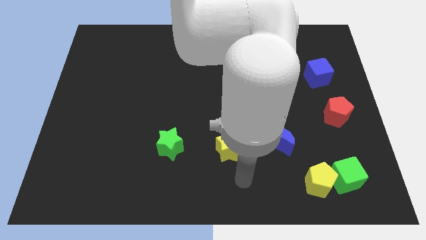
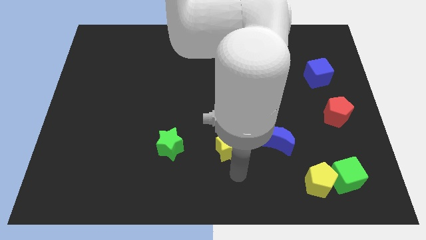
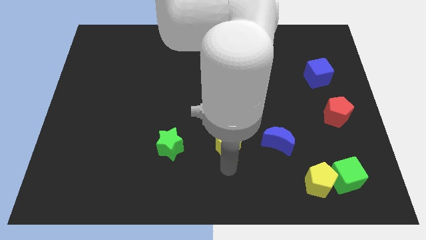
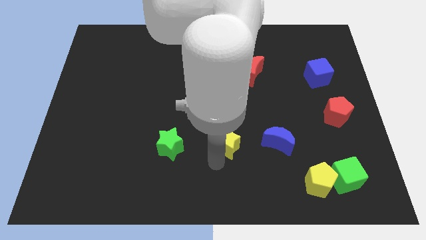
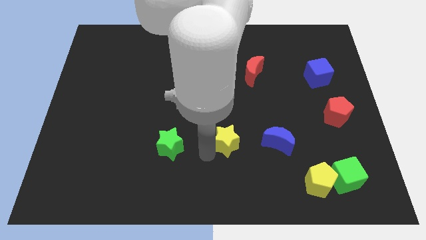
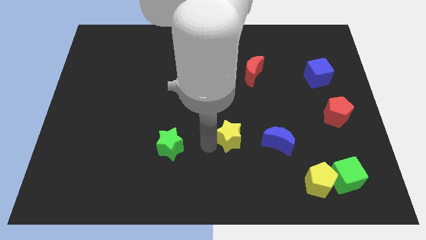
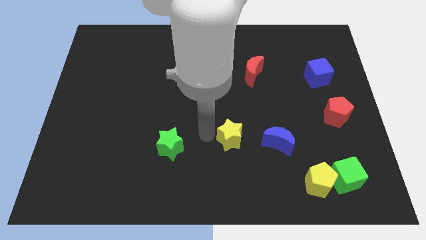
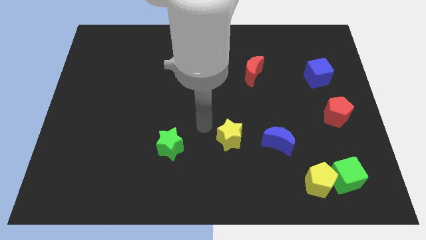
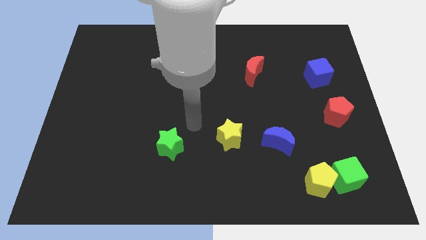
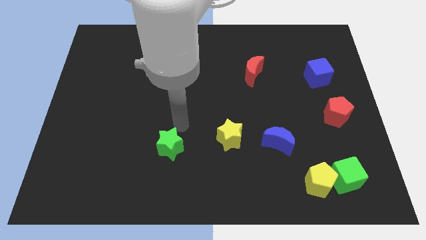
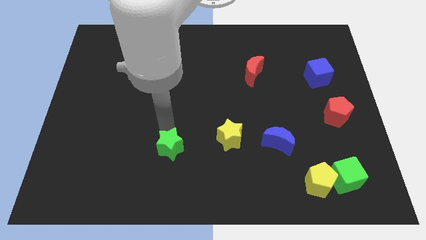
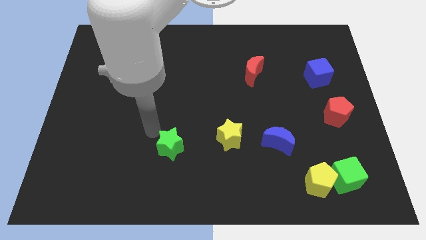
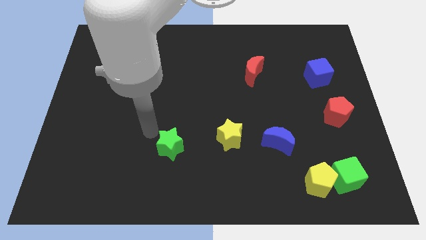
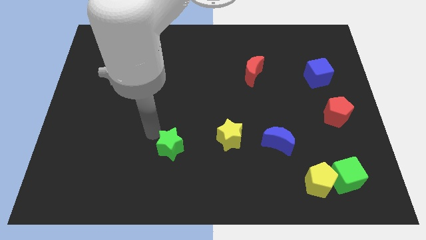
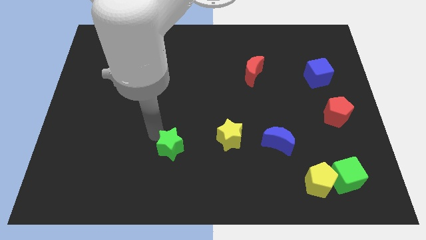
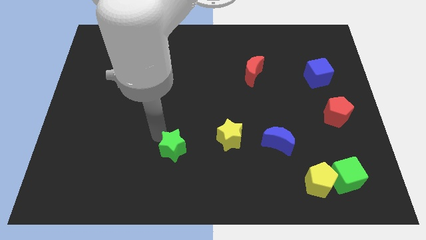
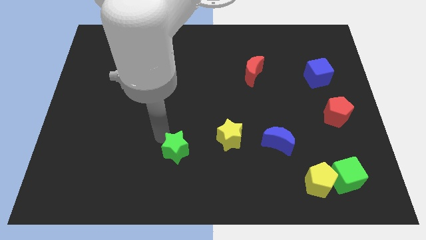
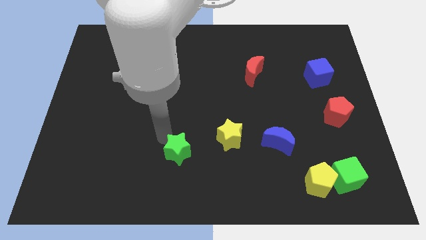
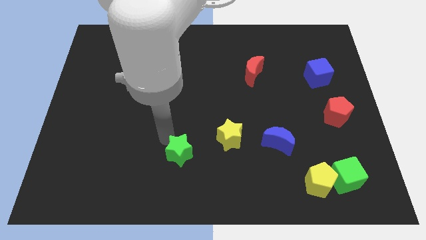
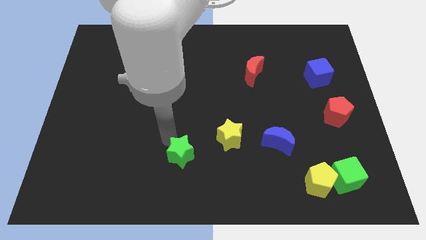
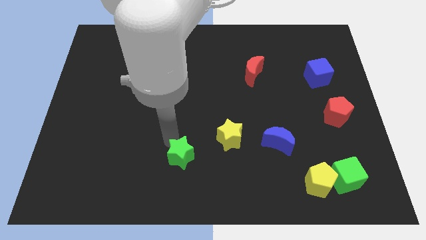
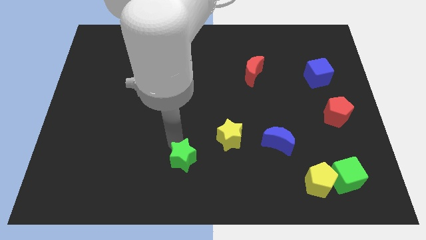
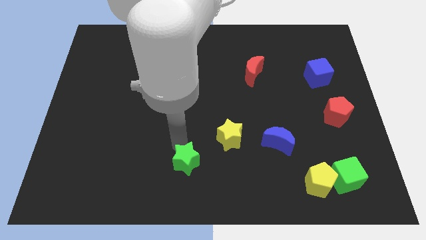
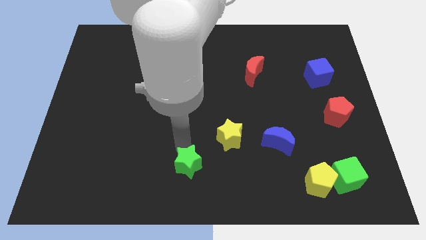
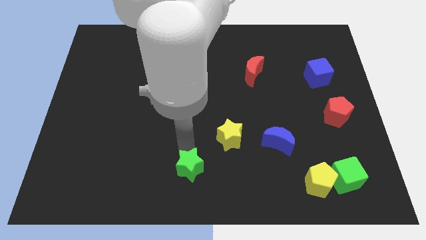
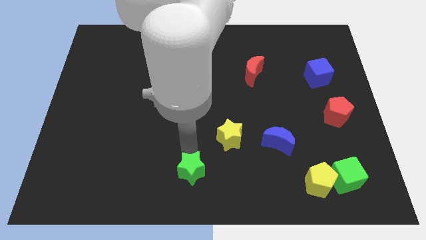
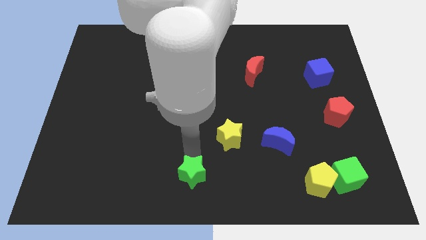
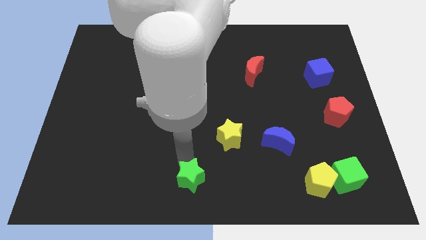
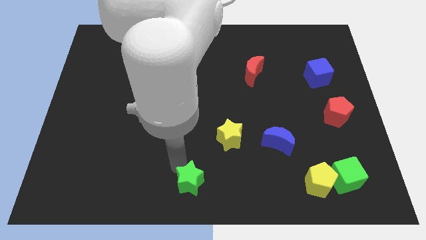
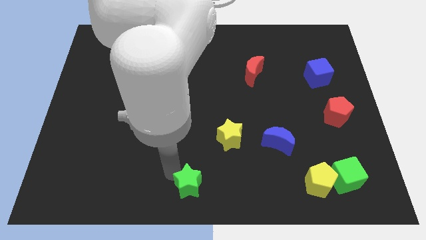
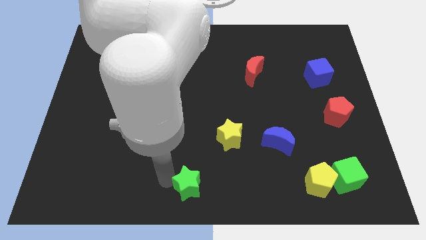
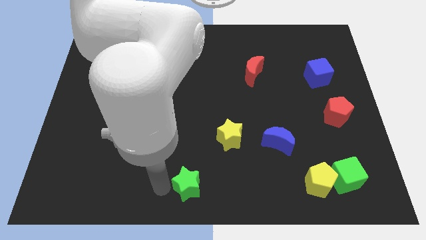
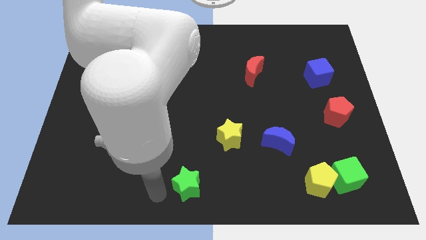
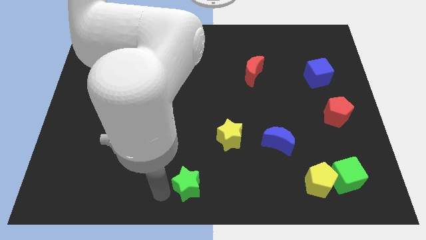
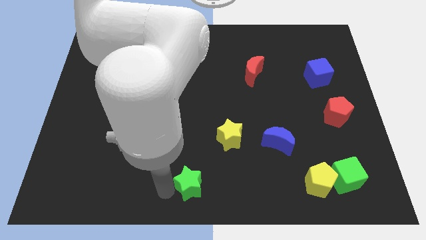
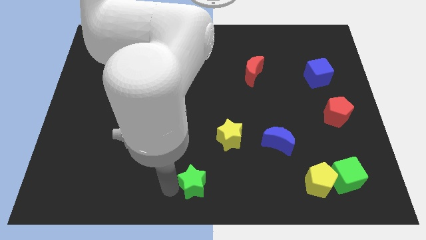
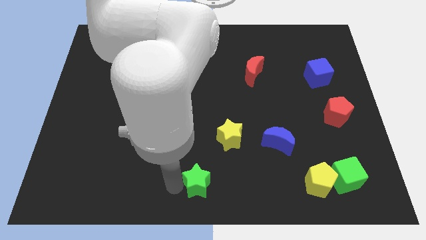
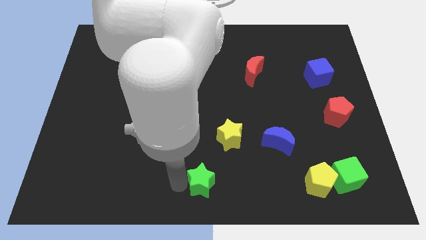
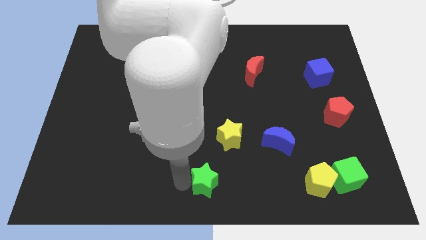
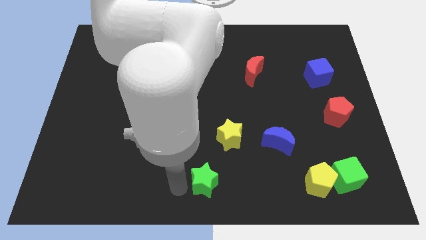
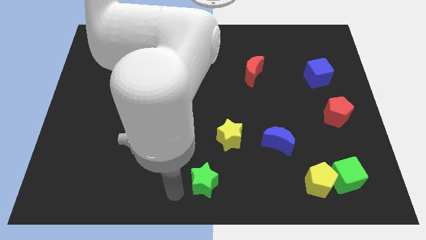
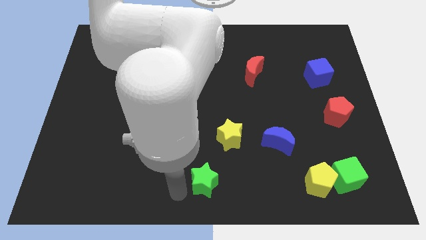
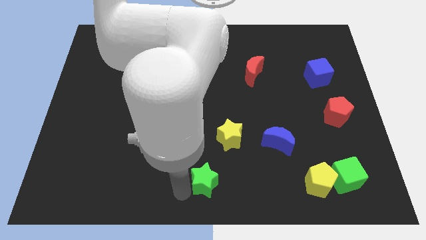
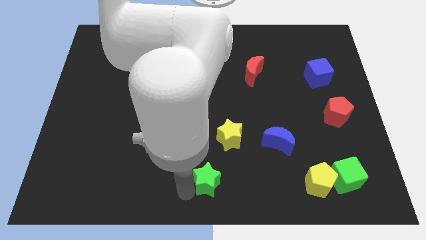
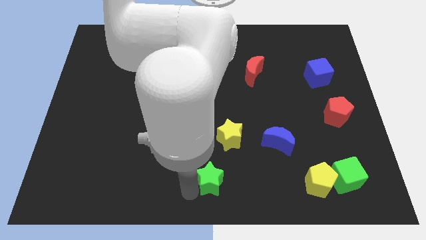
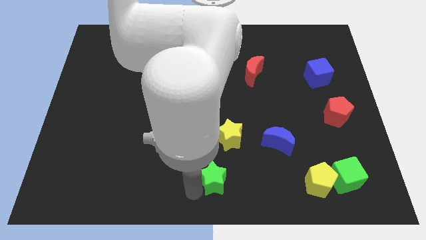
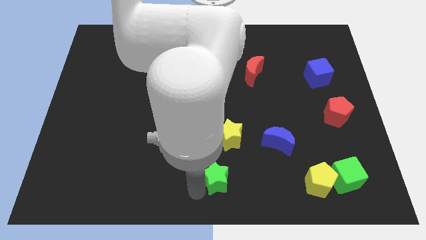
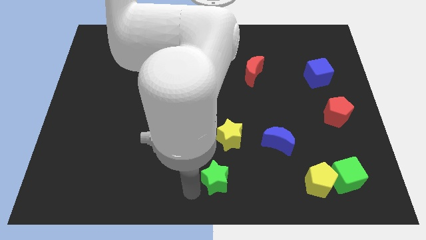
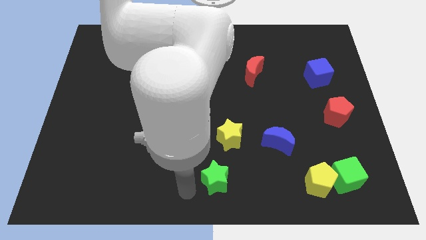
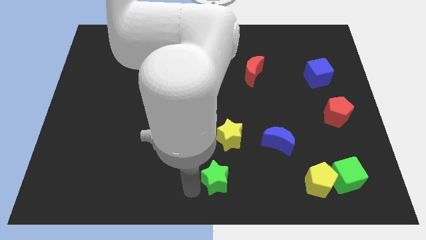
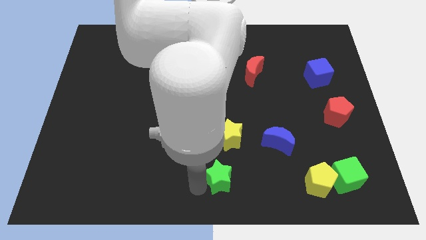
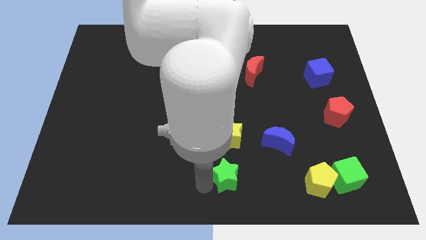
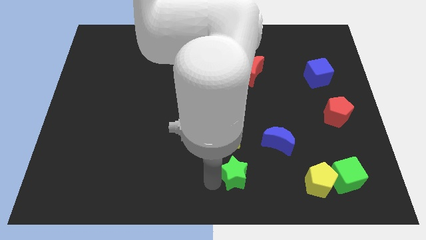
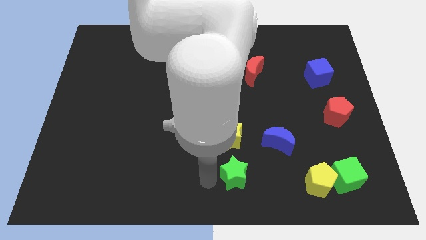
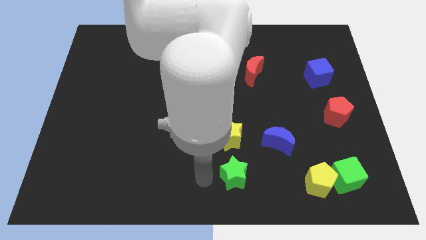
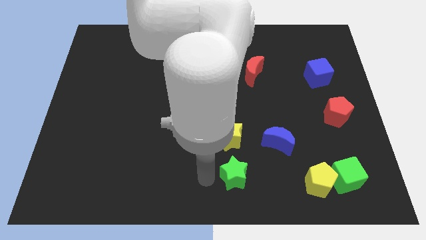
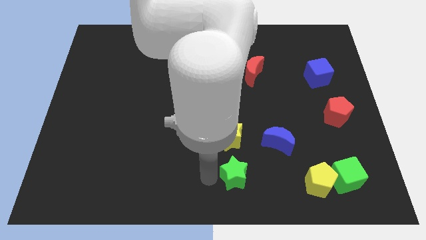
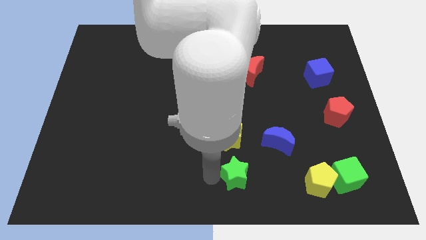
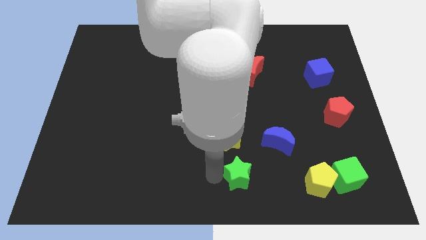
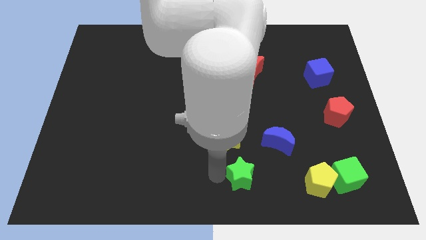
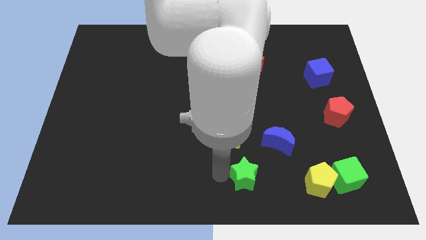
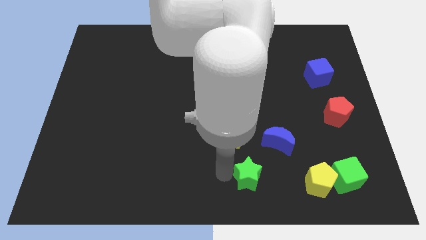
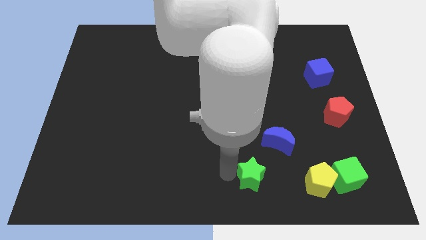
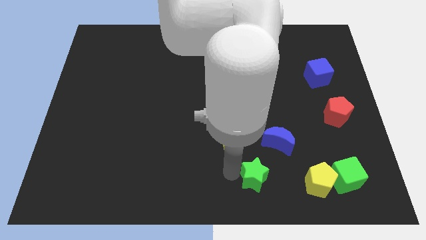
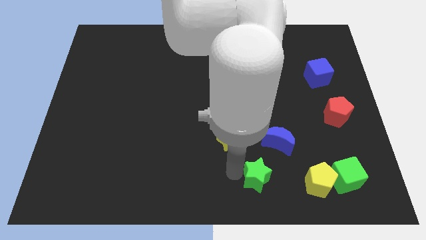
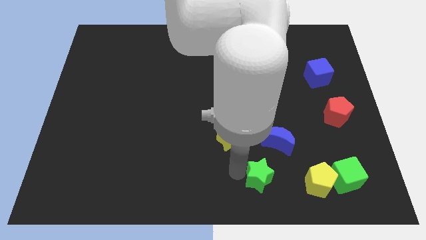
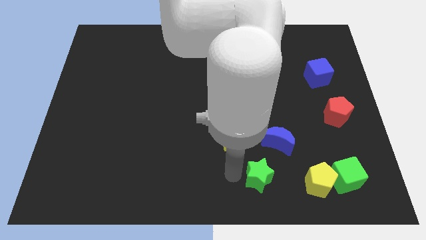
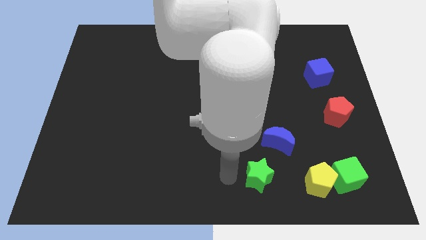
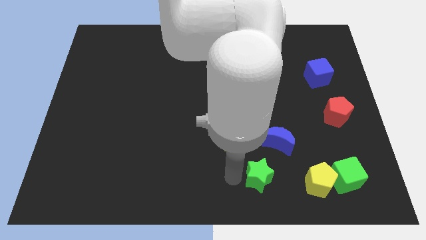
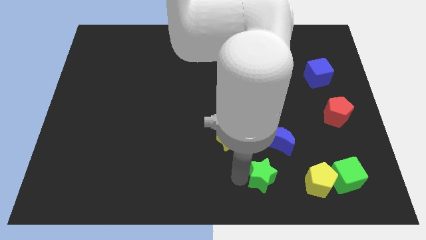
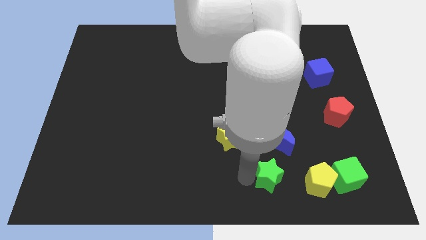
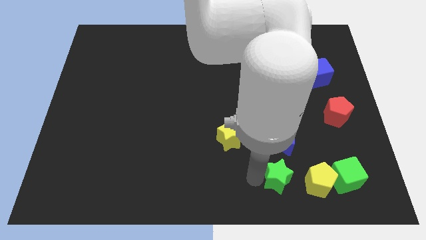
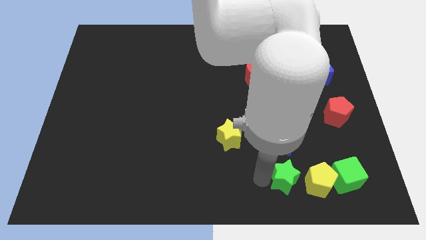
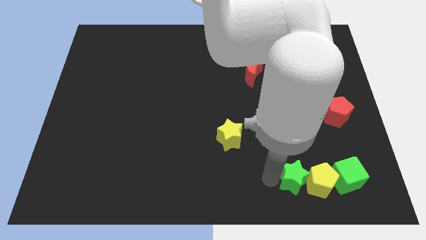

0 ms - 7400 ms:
move the green star close to the yellow pentagon
